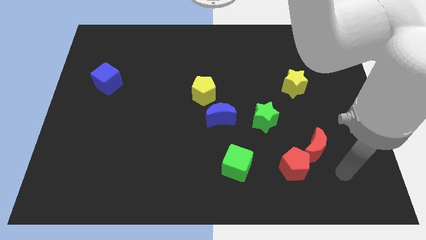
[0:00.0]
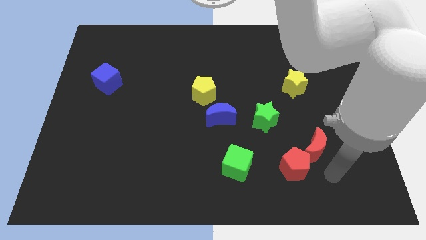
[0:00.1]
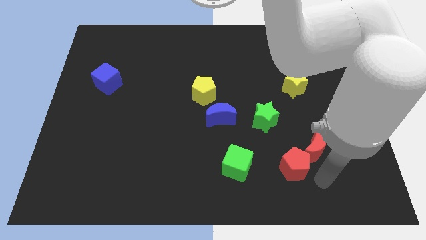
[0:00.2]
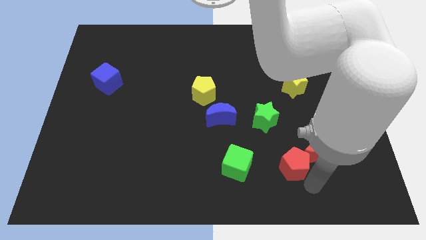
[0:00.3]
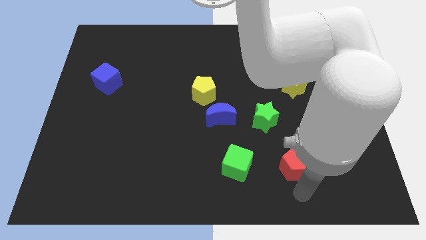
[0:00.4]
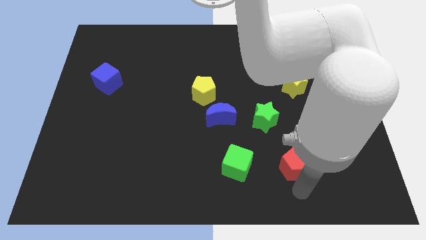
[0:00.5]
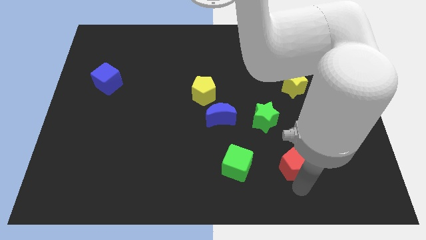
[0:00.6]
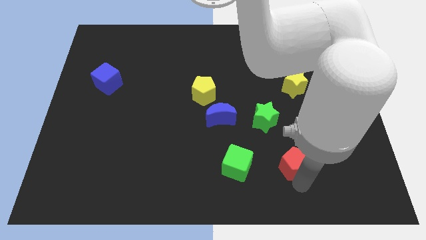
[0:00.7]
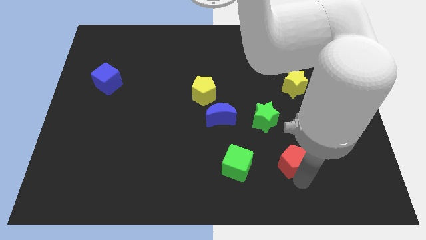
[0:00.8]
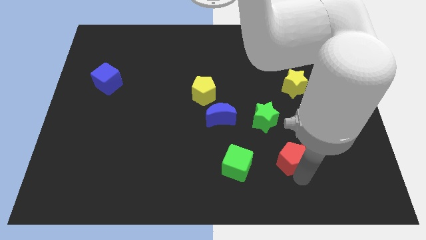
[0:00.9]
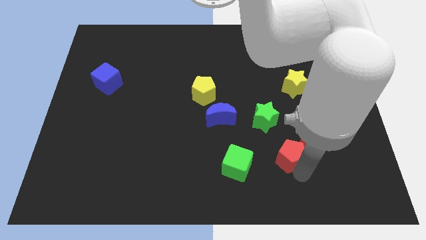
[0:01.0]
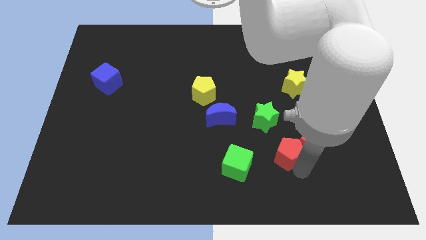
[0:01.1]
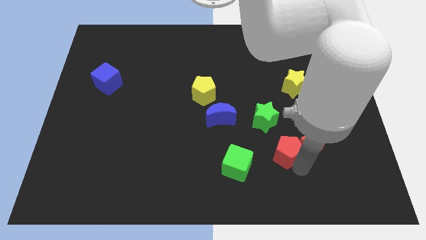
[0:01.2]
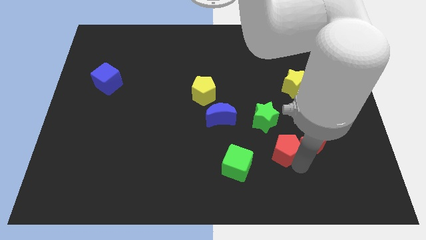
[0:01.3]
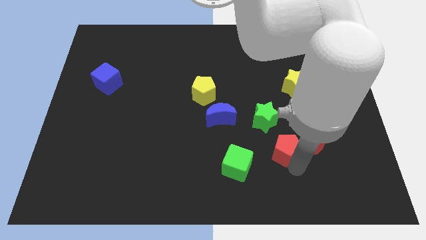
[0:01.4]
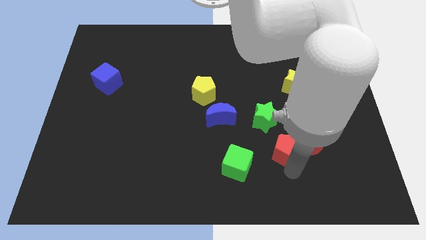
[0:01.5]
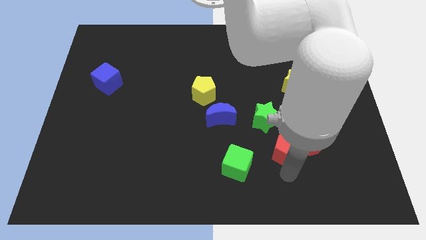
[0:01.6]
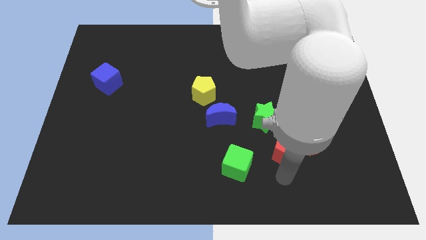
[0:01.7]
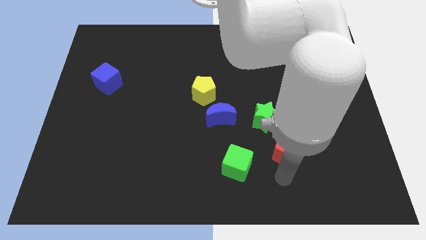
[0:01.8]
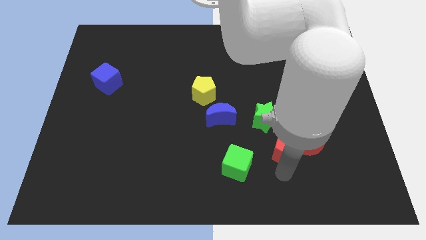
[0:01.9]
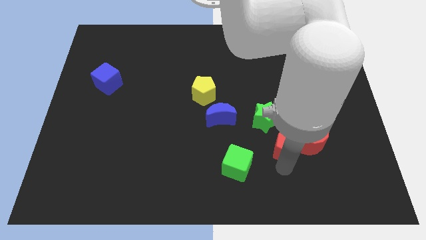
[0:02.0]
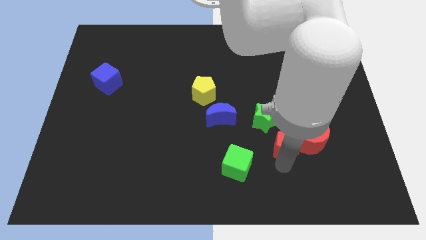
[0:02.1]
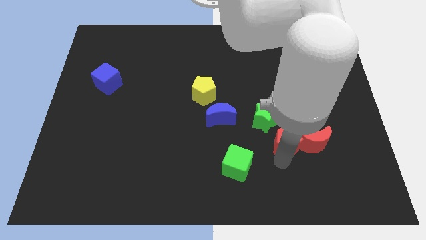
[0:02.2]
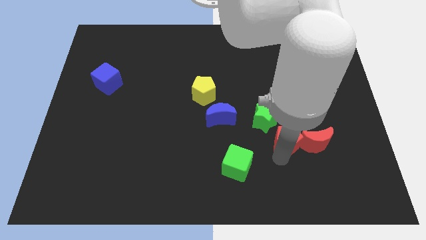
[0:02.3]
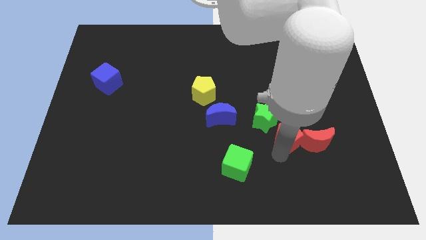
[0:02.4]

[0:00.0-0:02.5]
push the red pentagon up a bit

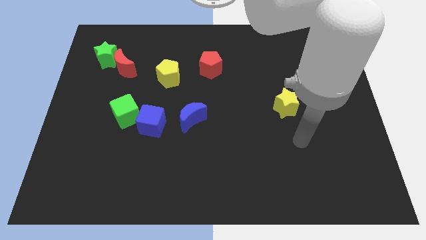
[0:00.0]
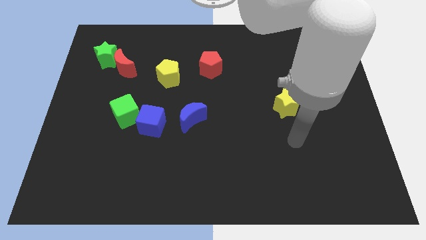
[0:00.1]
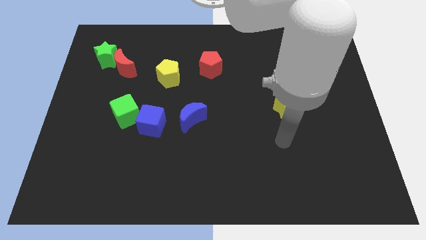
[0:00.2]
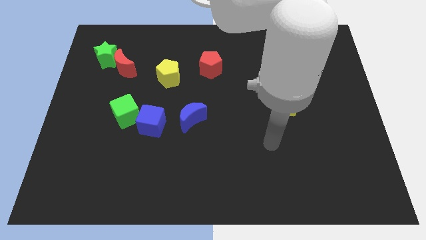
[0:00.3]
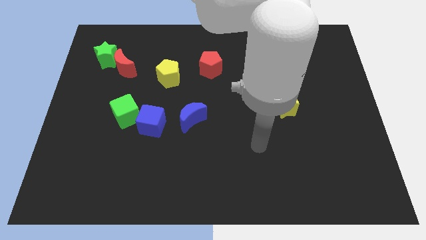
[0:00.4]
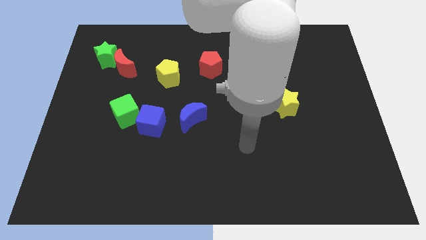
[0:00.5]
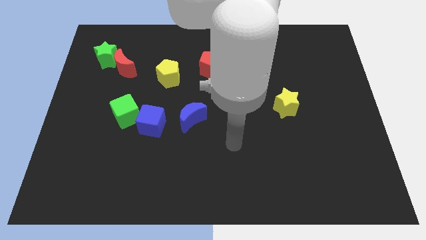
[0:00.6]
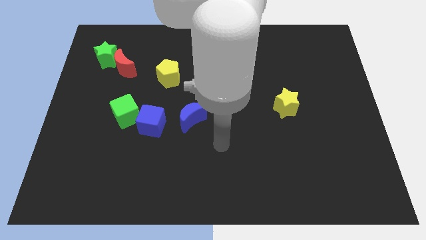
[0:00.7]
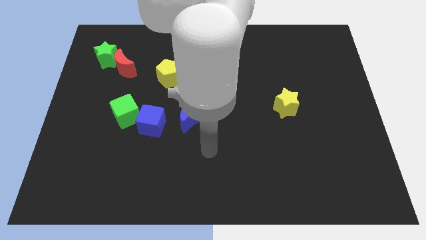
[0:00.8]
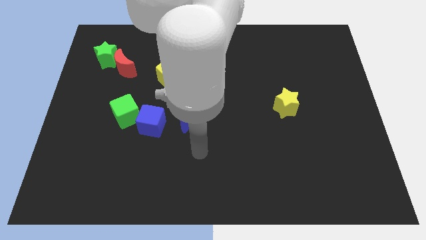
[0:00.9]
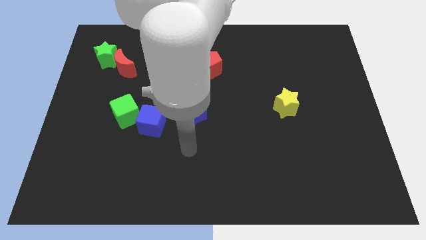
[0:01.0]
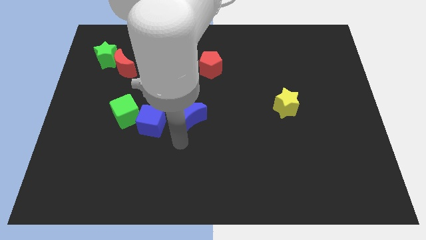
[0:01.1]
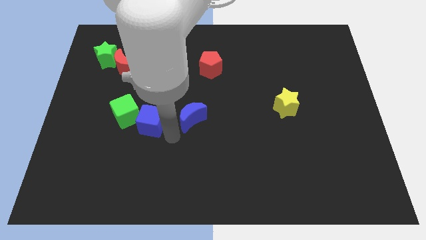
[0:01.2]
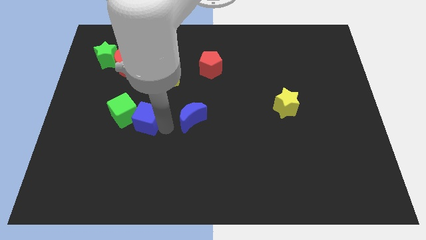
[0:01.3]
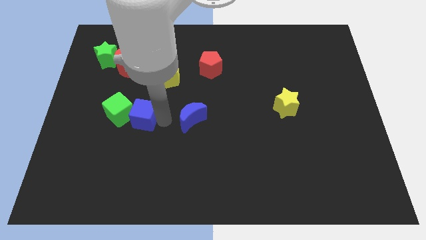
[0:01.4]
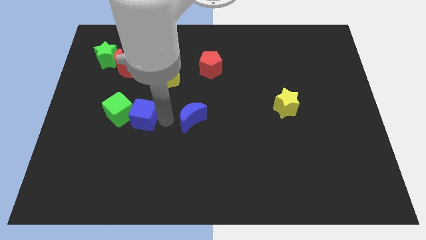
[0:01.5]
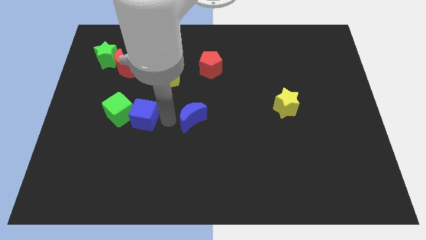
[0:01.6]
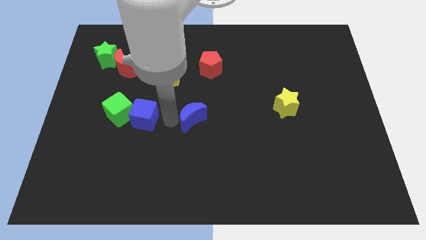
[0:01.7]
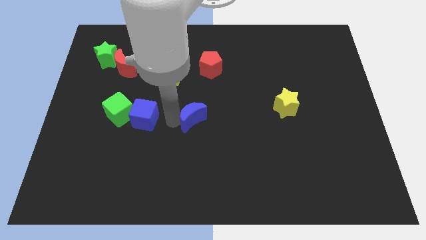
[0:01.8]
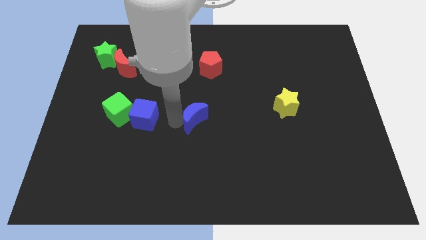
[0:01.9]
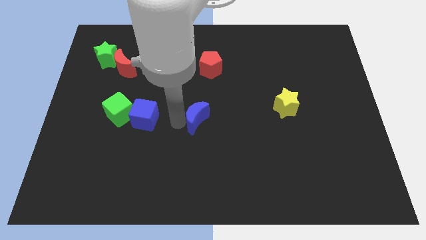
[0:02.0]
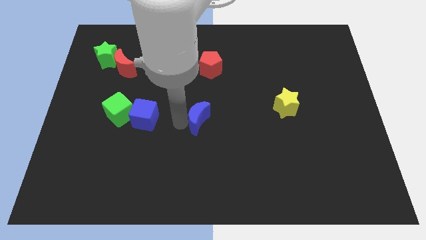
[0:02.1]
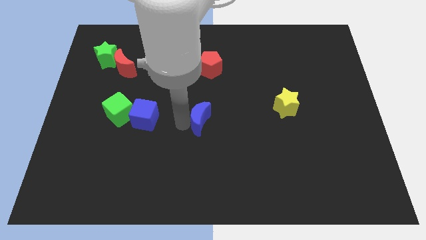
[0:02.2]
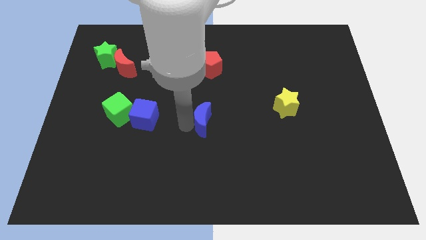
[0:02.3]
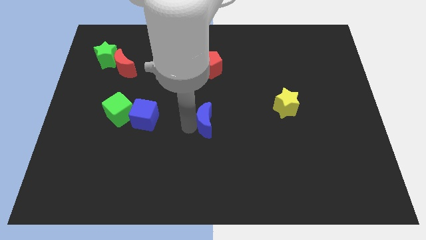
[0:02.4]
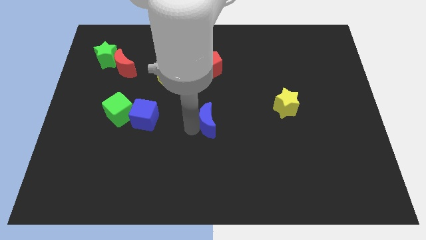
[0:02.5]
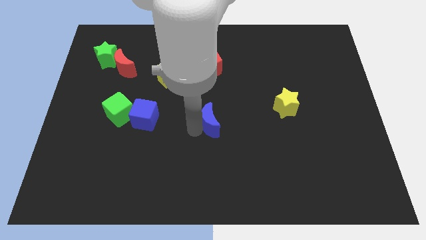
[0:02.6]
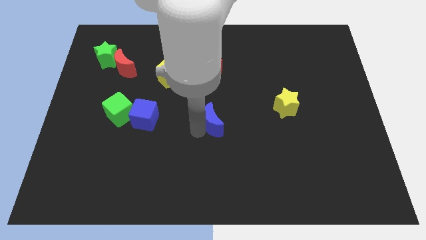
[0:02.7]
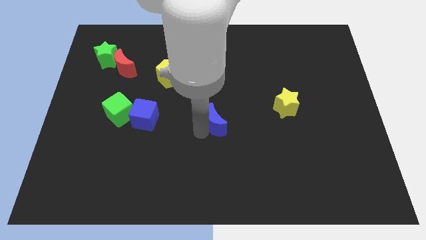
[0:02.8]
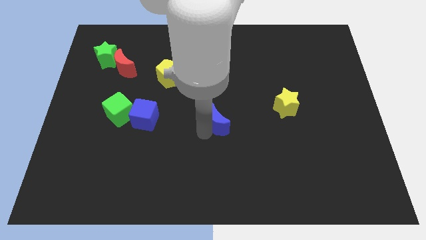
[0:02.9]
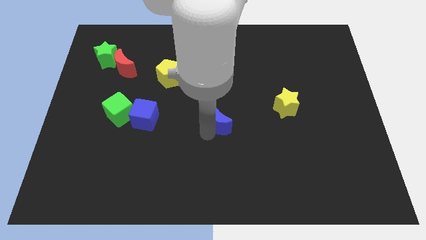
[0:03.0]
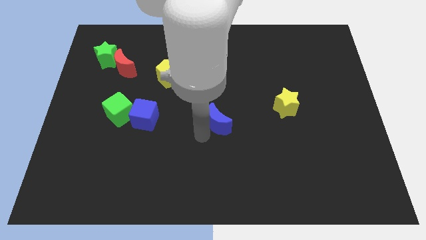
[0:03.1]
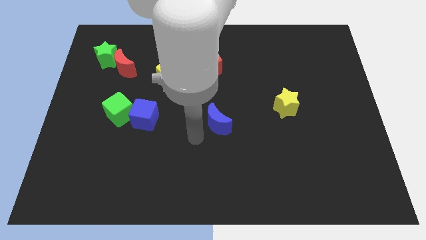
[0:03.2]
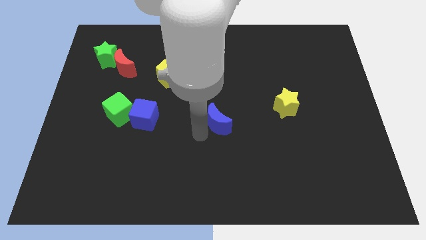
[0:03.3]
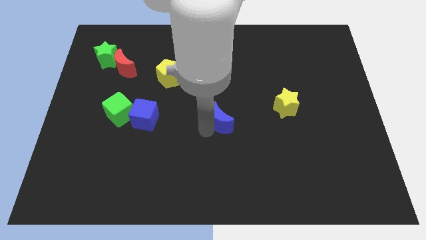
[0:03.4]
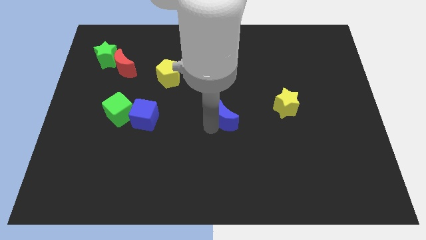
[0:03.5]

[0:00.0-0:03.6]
slightly slide the blue moon to the right

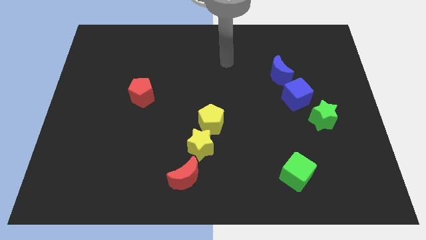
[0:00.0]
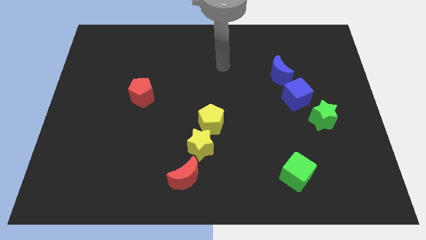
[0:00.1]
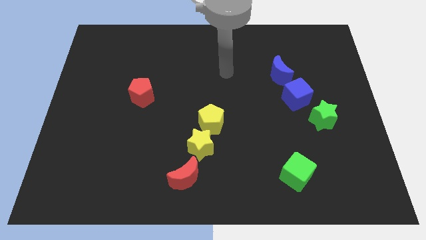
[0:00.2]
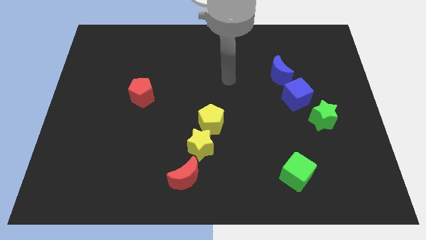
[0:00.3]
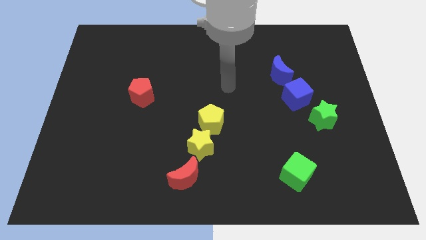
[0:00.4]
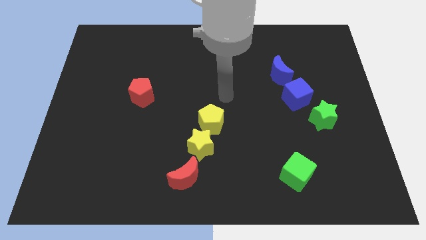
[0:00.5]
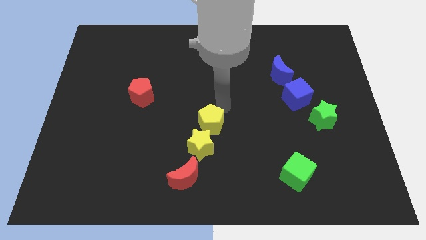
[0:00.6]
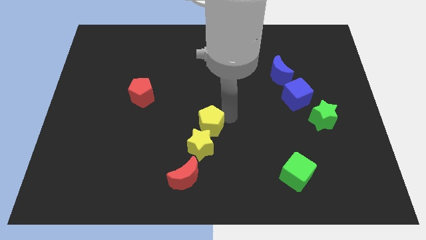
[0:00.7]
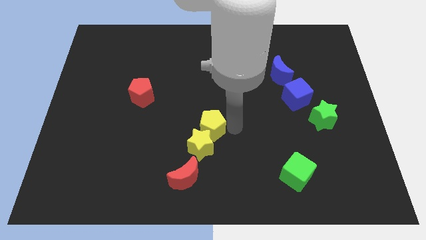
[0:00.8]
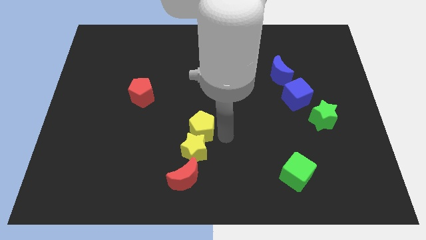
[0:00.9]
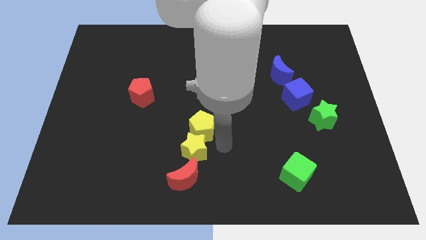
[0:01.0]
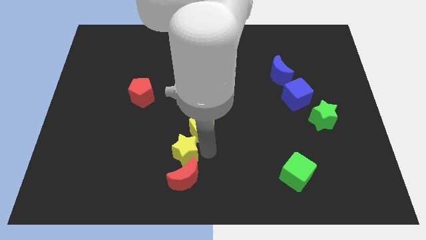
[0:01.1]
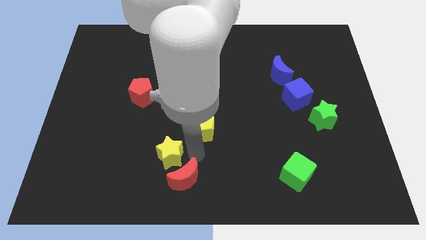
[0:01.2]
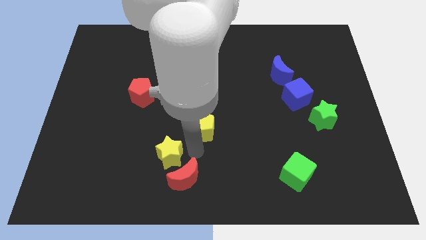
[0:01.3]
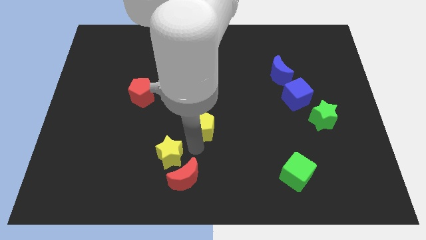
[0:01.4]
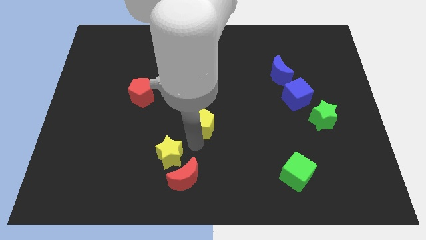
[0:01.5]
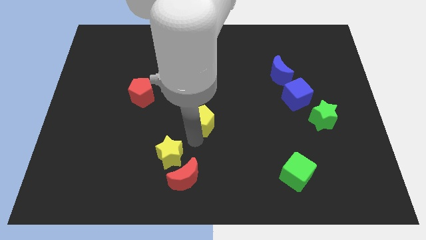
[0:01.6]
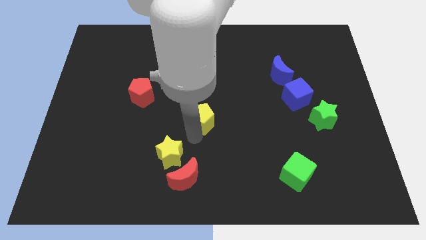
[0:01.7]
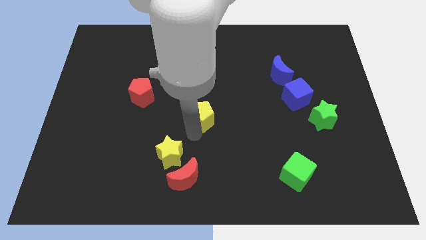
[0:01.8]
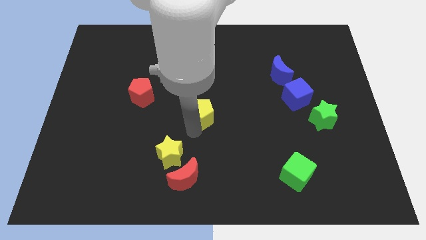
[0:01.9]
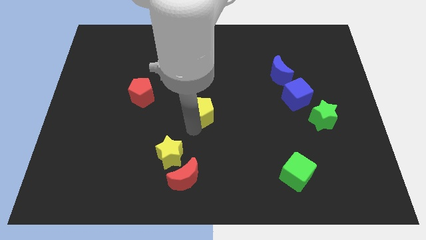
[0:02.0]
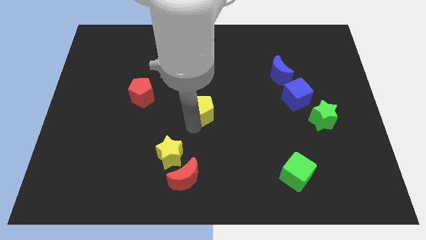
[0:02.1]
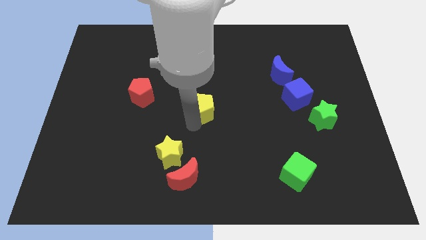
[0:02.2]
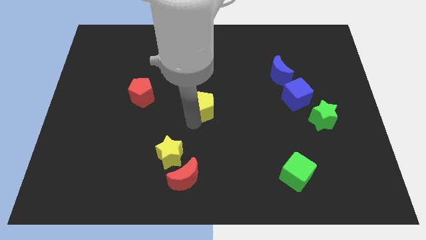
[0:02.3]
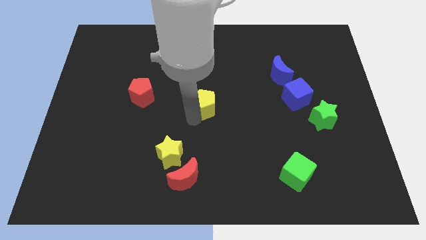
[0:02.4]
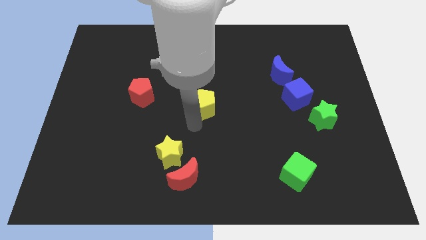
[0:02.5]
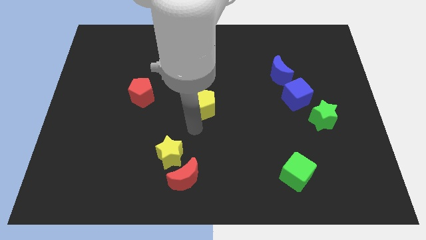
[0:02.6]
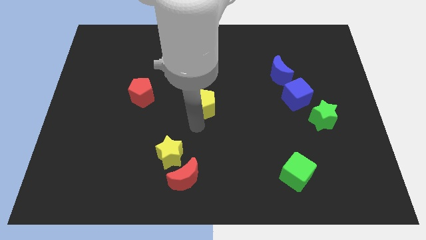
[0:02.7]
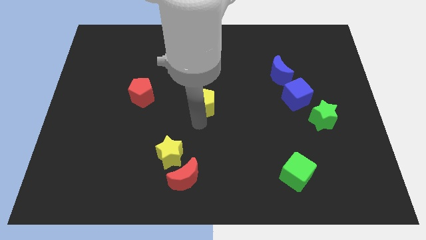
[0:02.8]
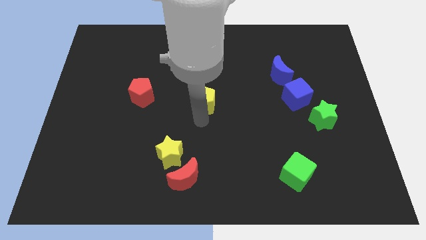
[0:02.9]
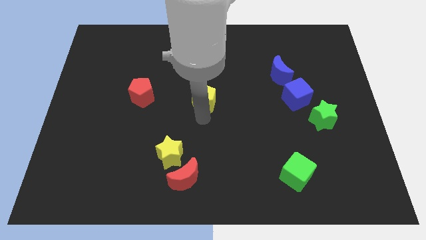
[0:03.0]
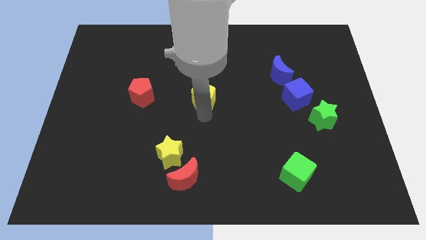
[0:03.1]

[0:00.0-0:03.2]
move the yellow pentagon a bit upwards
